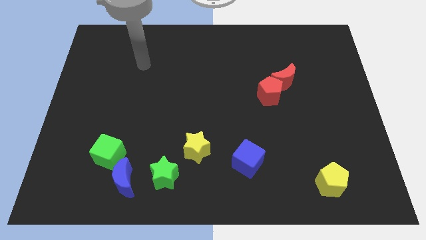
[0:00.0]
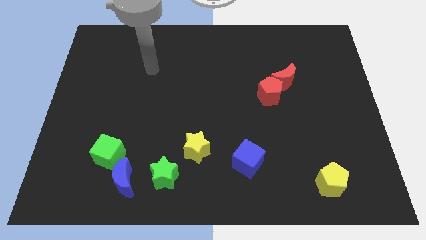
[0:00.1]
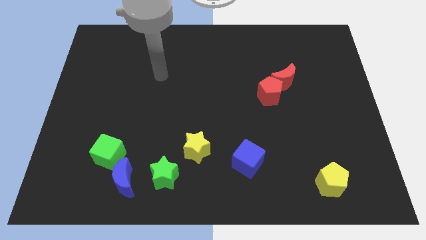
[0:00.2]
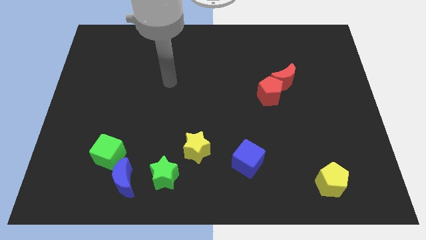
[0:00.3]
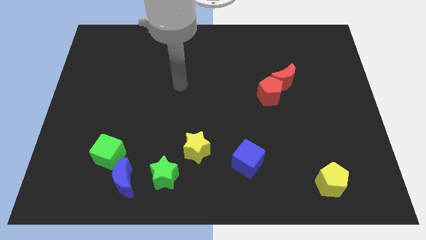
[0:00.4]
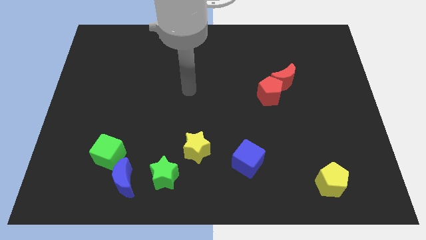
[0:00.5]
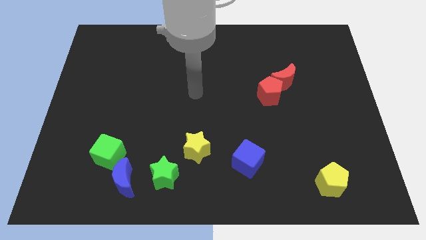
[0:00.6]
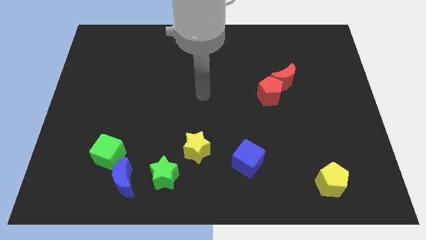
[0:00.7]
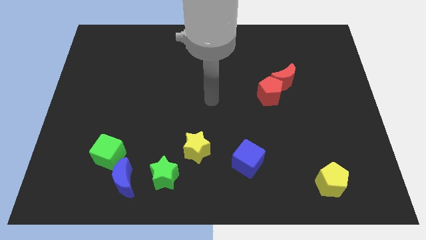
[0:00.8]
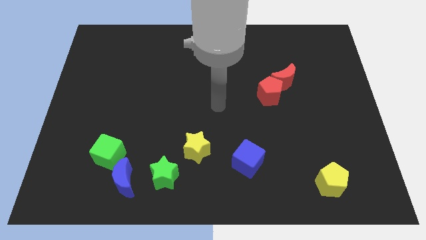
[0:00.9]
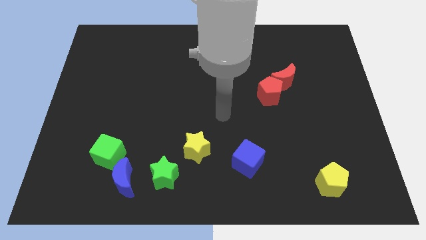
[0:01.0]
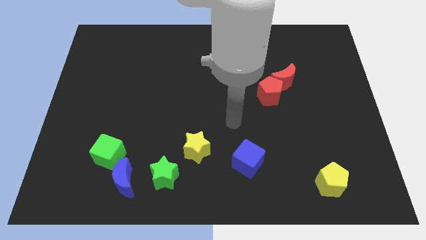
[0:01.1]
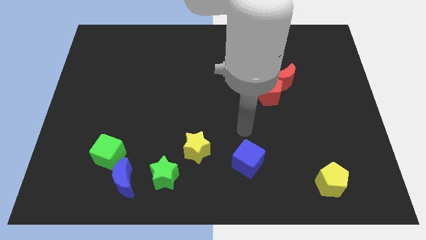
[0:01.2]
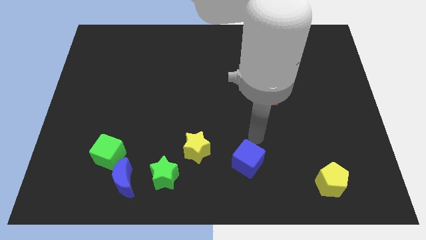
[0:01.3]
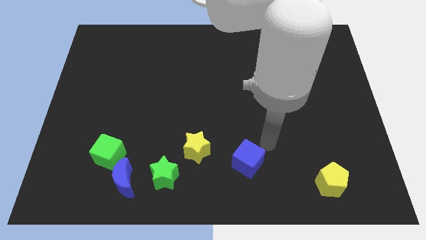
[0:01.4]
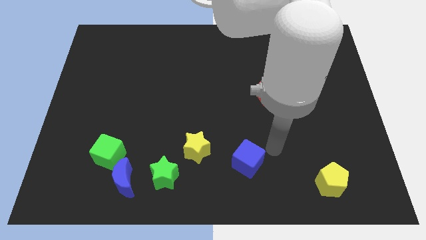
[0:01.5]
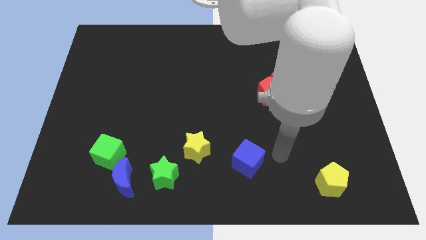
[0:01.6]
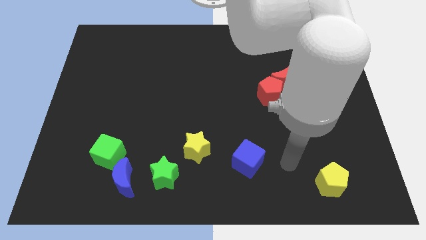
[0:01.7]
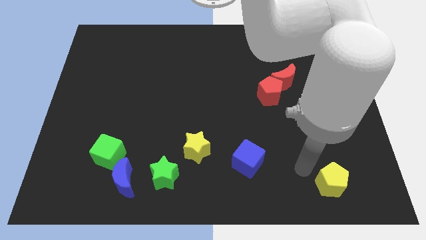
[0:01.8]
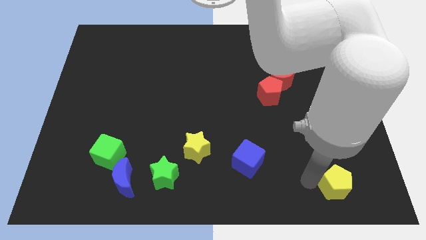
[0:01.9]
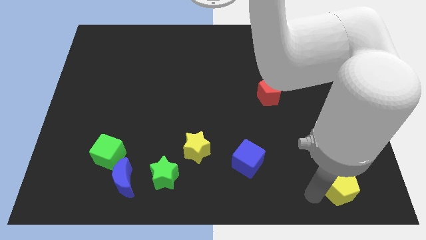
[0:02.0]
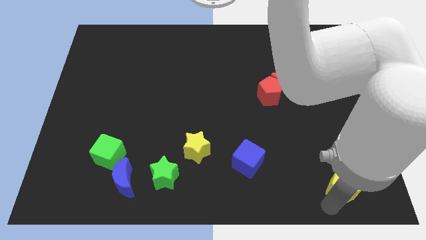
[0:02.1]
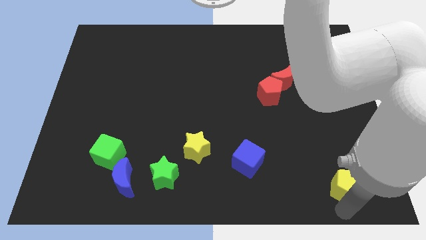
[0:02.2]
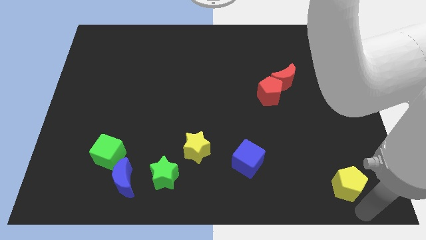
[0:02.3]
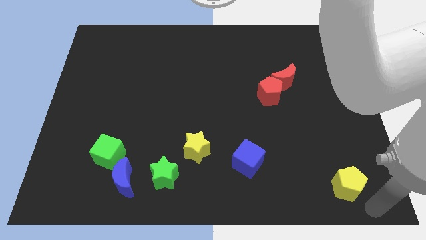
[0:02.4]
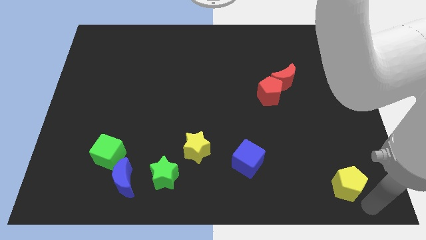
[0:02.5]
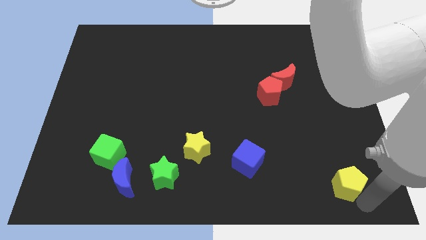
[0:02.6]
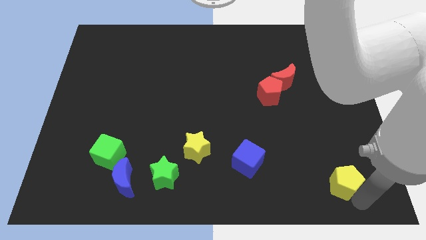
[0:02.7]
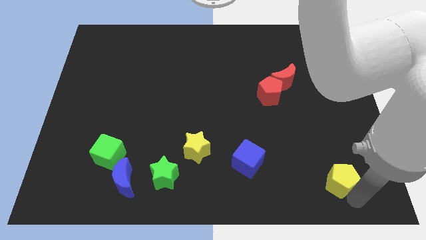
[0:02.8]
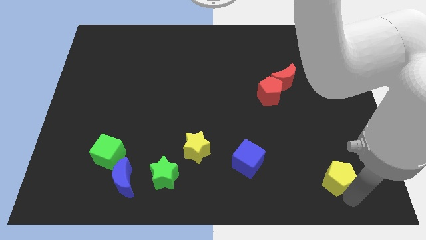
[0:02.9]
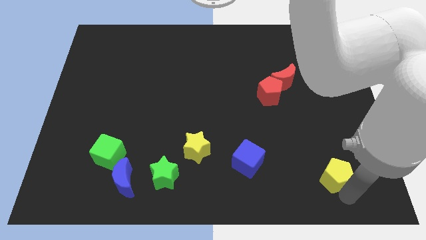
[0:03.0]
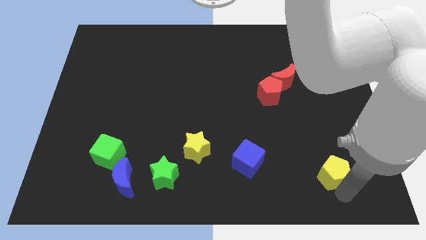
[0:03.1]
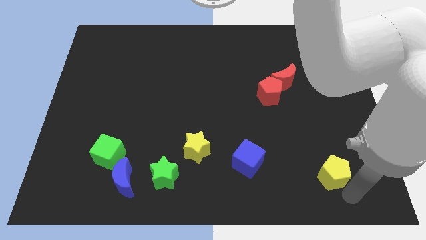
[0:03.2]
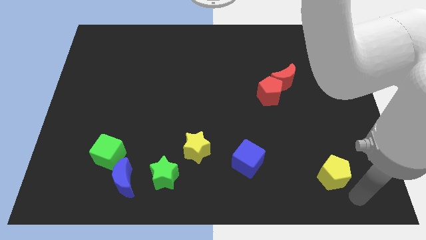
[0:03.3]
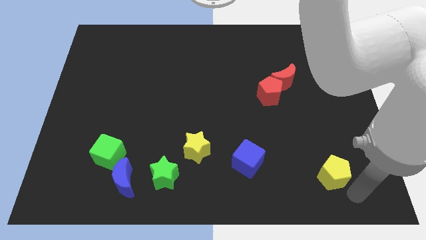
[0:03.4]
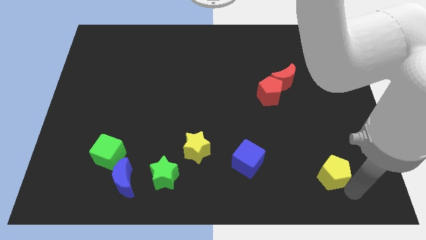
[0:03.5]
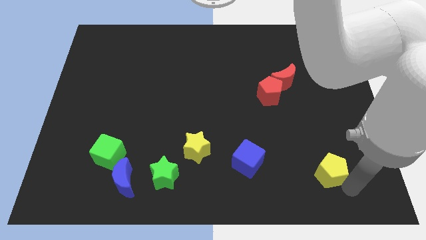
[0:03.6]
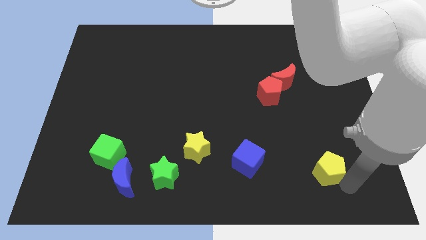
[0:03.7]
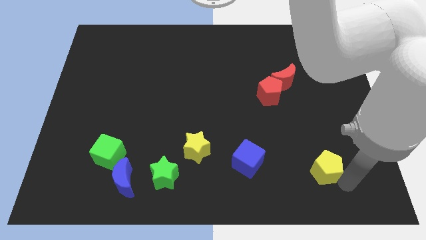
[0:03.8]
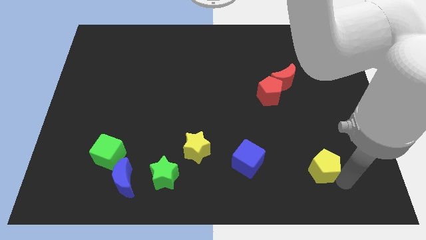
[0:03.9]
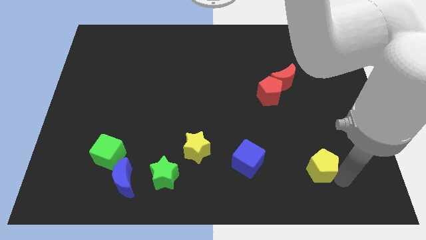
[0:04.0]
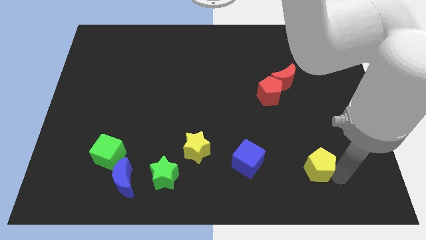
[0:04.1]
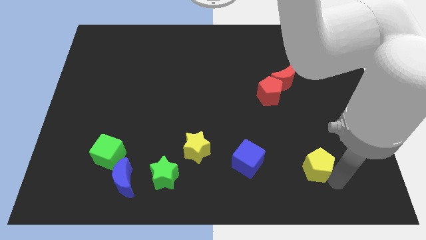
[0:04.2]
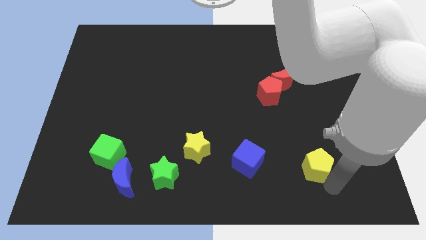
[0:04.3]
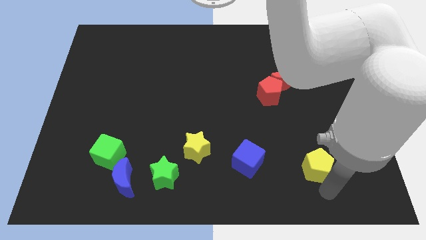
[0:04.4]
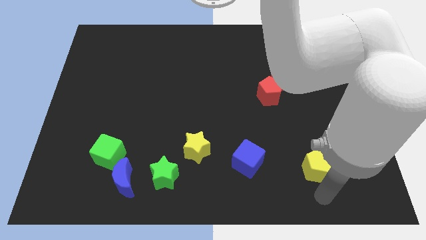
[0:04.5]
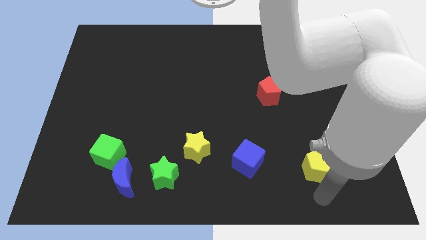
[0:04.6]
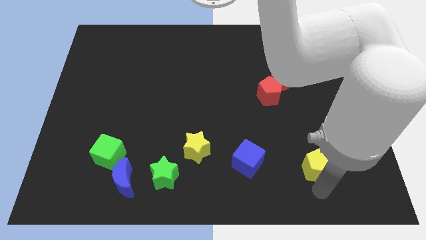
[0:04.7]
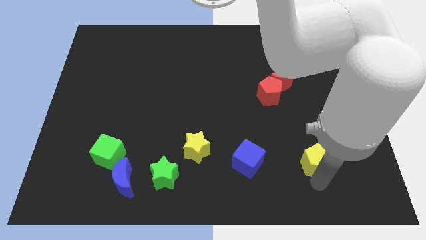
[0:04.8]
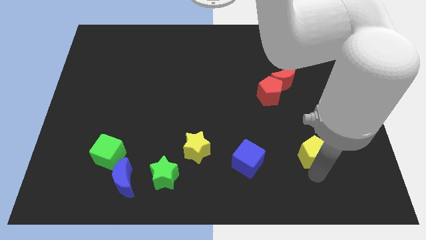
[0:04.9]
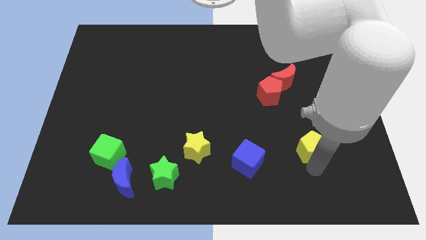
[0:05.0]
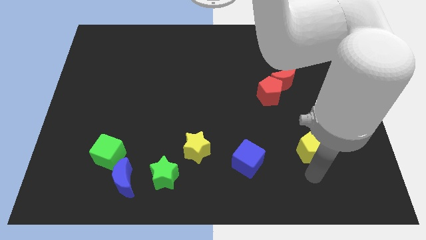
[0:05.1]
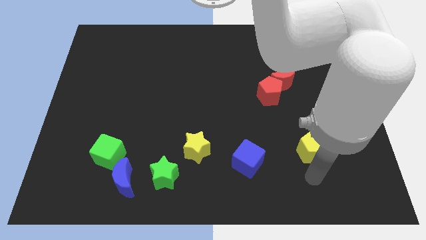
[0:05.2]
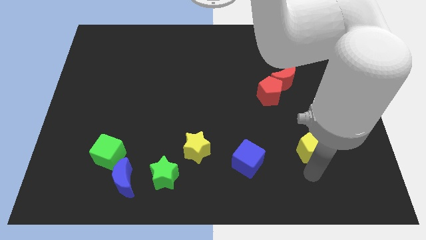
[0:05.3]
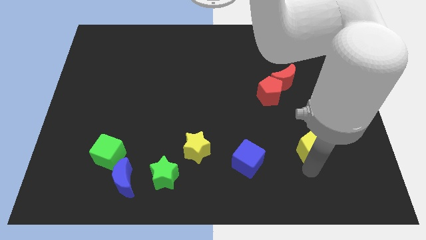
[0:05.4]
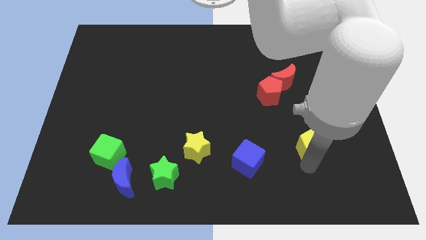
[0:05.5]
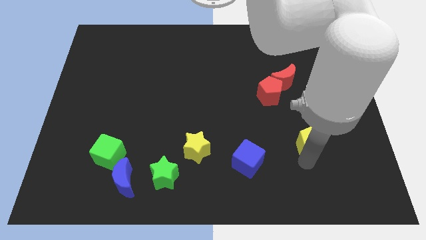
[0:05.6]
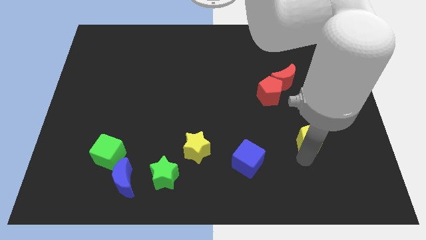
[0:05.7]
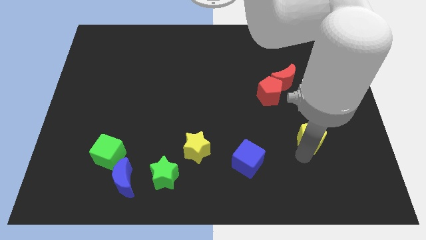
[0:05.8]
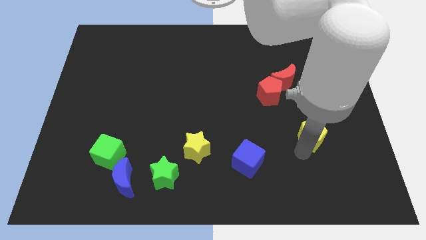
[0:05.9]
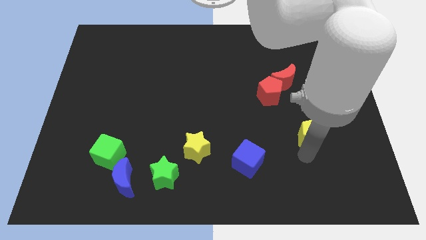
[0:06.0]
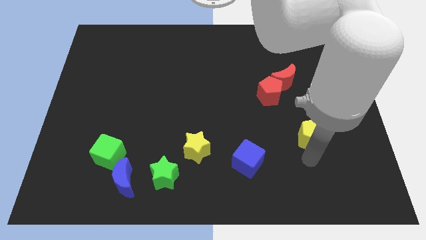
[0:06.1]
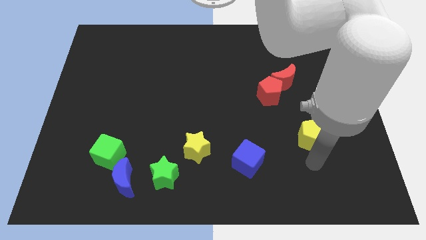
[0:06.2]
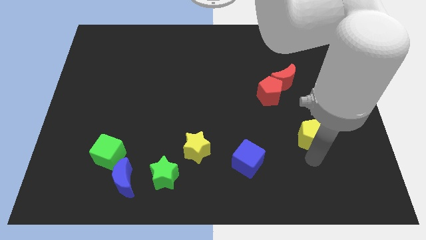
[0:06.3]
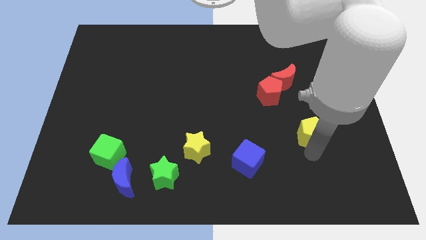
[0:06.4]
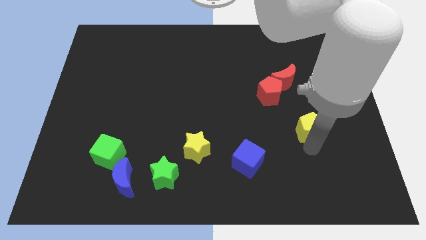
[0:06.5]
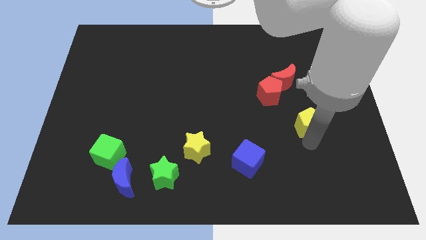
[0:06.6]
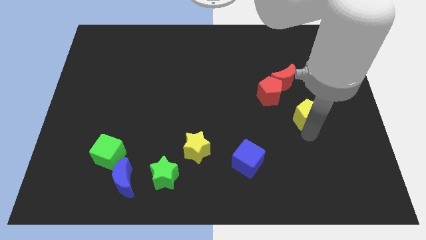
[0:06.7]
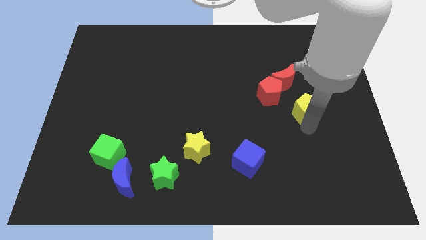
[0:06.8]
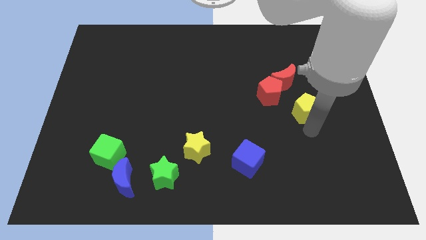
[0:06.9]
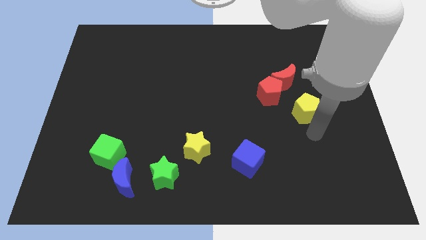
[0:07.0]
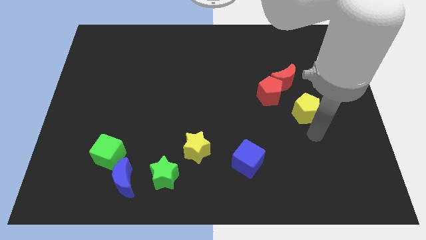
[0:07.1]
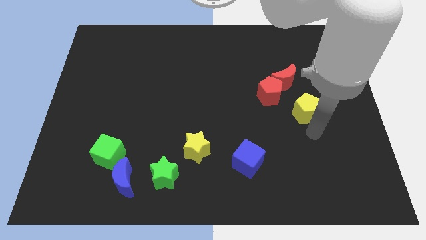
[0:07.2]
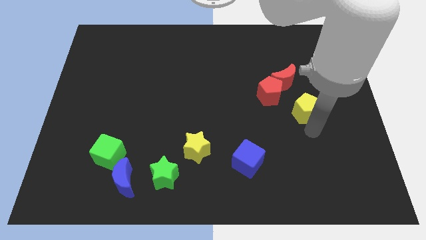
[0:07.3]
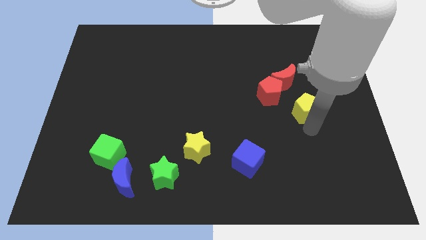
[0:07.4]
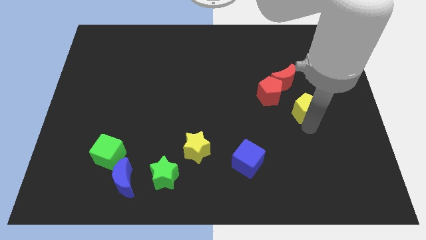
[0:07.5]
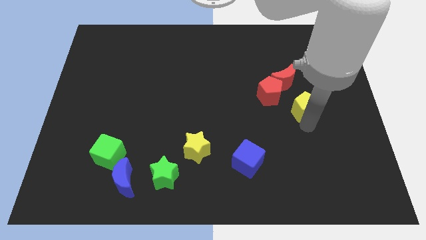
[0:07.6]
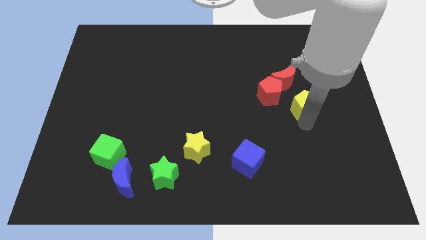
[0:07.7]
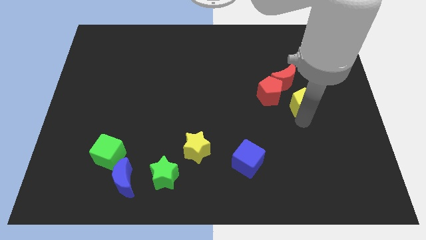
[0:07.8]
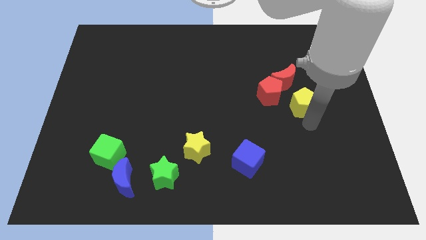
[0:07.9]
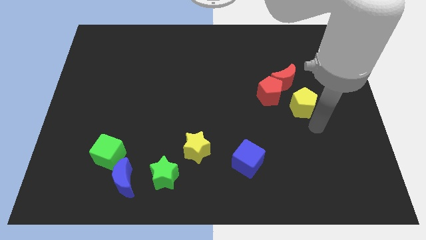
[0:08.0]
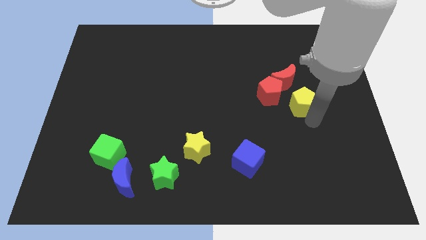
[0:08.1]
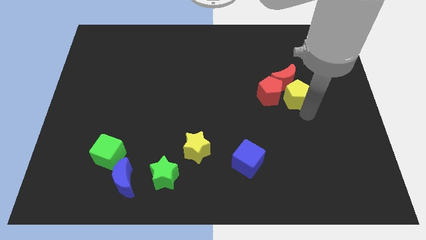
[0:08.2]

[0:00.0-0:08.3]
push the yellow pentagon towards the red moon
